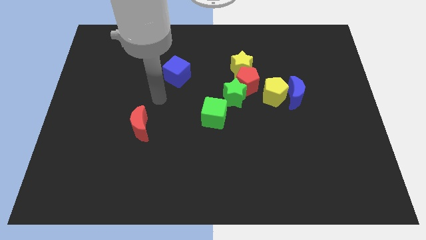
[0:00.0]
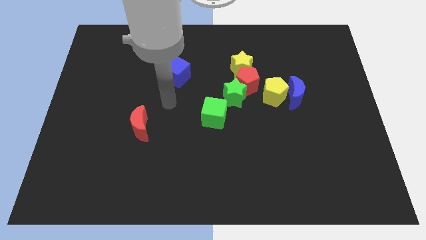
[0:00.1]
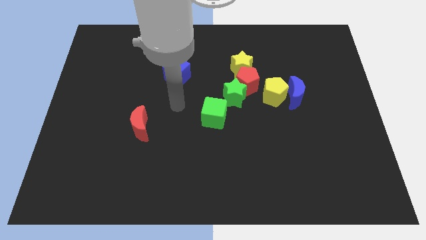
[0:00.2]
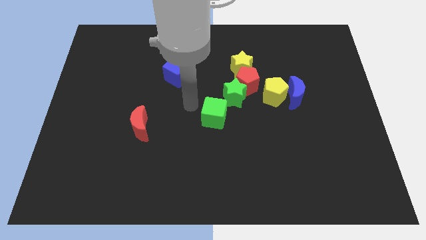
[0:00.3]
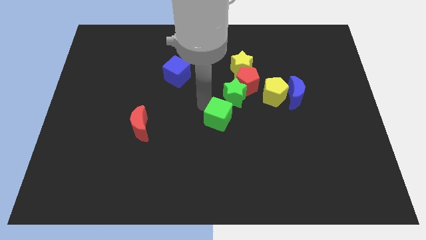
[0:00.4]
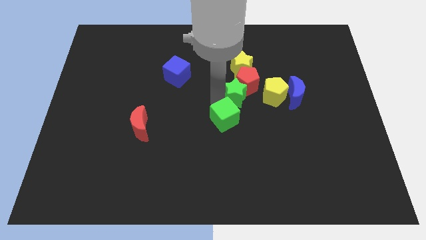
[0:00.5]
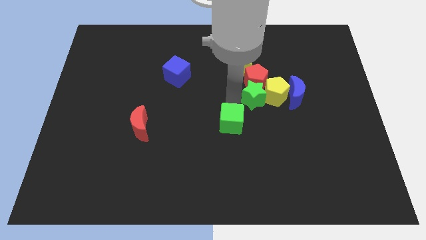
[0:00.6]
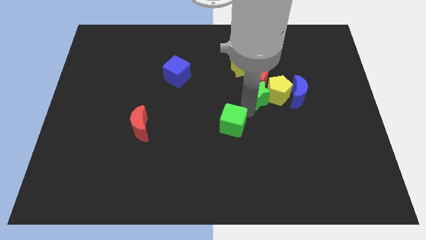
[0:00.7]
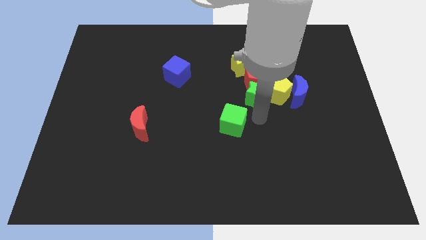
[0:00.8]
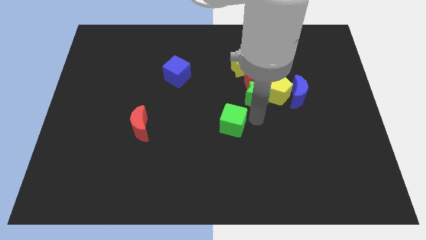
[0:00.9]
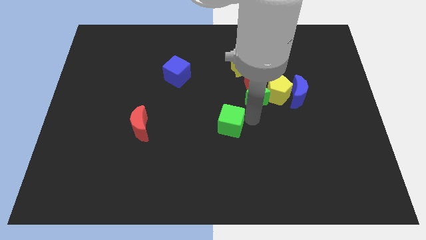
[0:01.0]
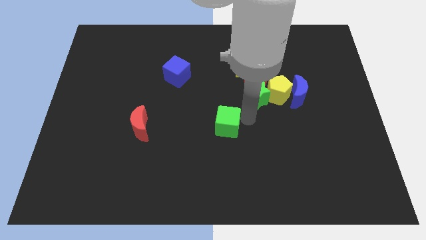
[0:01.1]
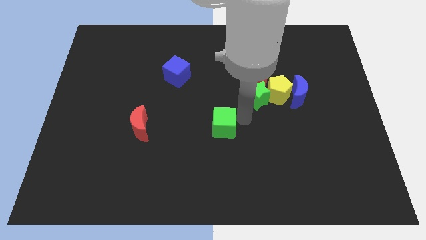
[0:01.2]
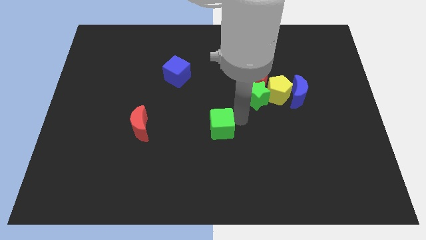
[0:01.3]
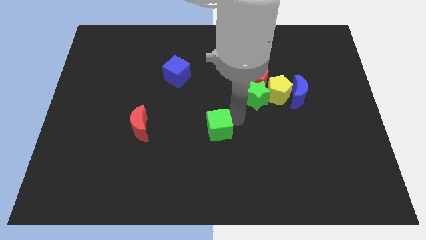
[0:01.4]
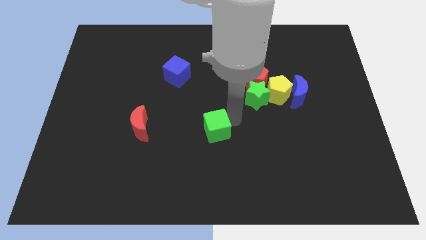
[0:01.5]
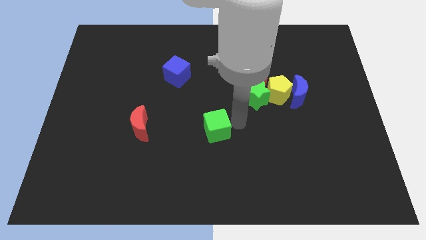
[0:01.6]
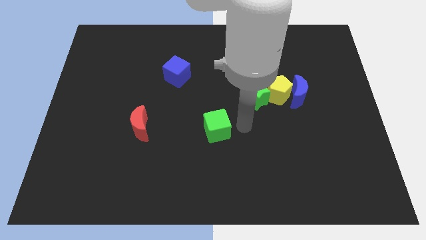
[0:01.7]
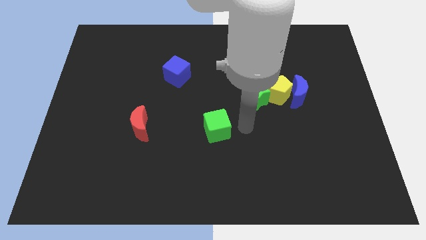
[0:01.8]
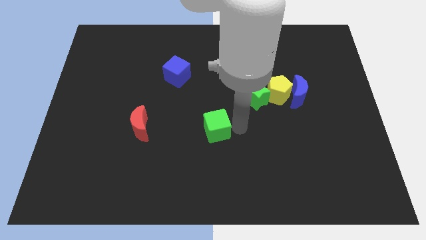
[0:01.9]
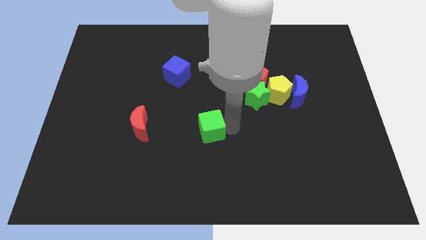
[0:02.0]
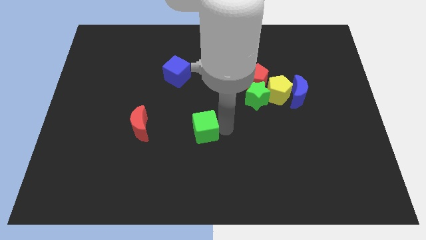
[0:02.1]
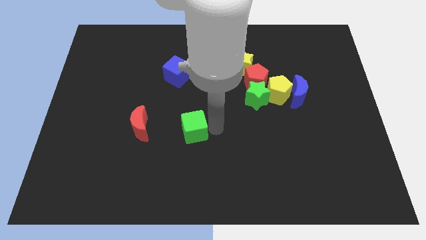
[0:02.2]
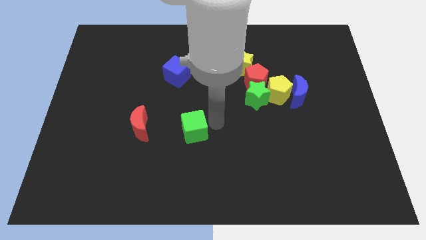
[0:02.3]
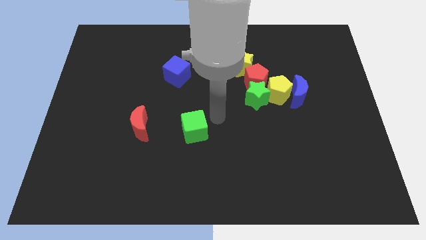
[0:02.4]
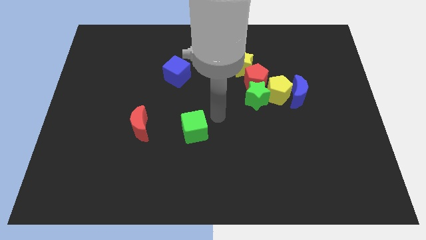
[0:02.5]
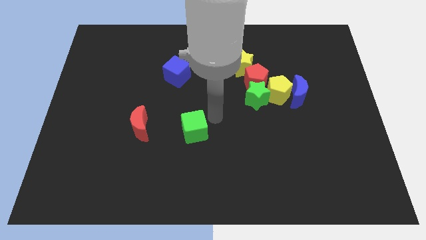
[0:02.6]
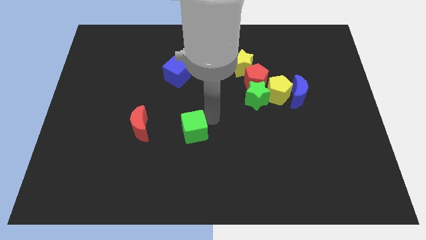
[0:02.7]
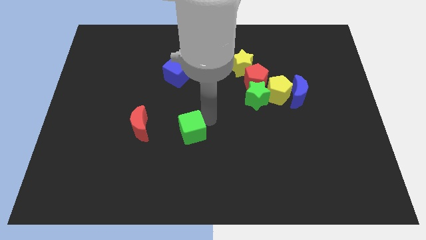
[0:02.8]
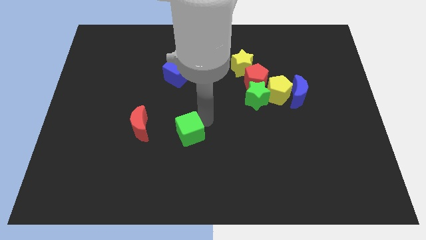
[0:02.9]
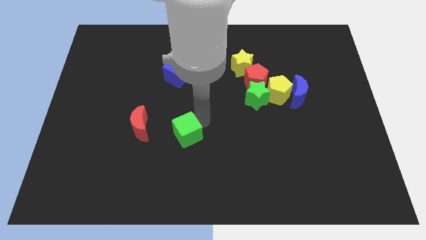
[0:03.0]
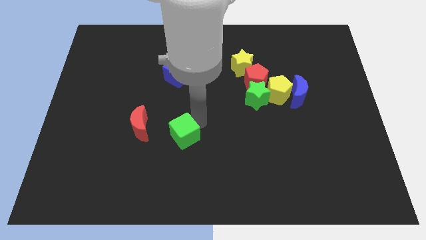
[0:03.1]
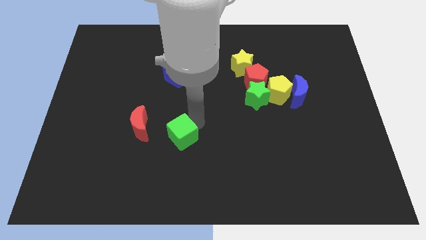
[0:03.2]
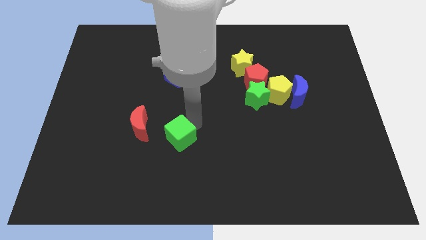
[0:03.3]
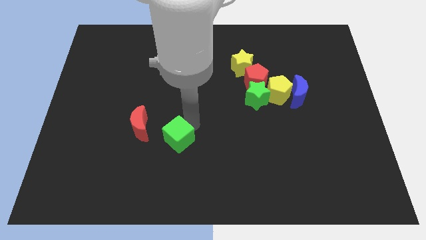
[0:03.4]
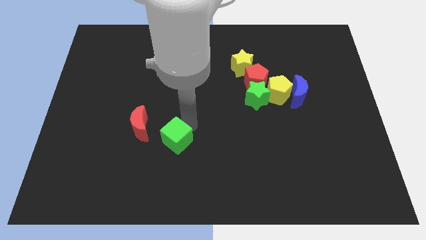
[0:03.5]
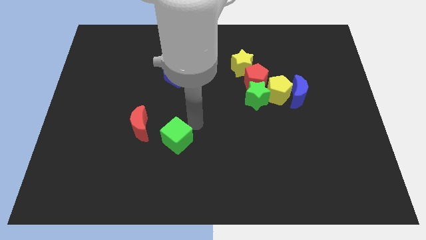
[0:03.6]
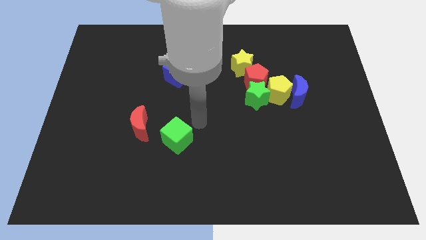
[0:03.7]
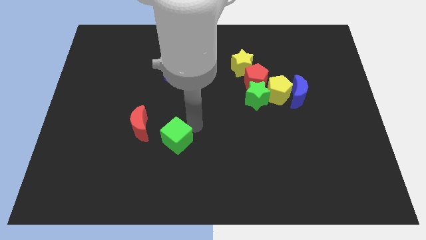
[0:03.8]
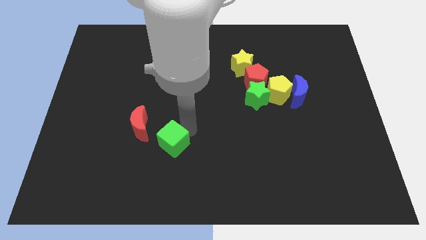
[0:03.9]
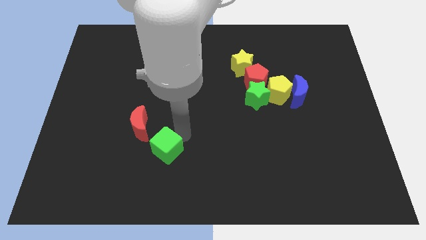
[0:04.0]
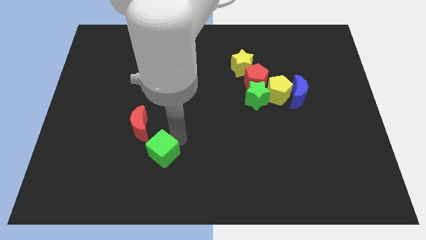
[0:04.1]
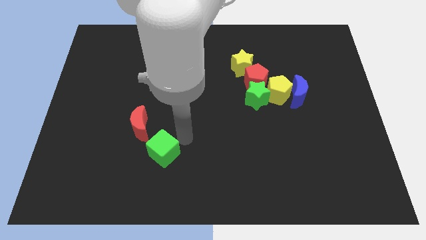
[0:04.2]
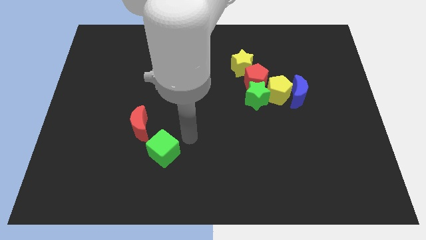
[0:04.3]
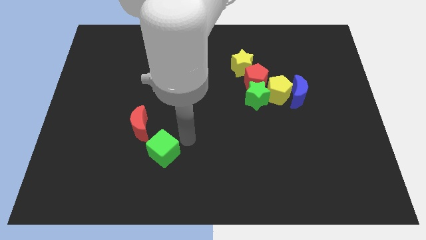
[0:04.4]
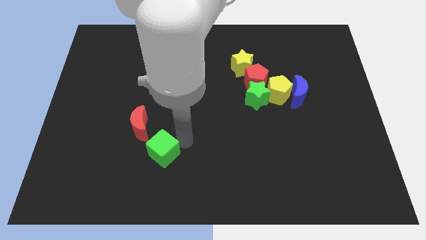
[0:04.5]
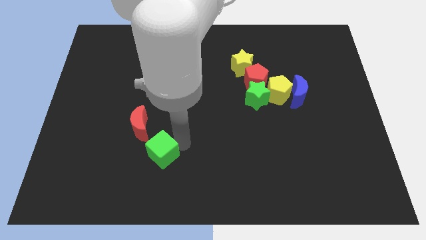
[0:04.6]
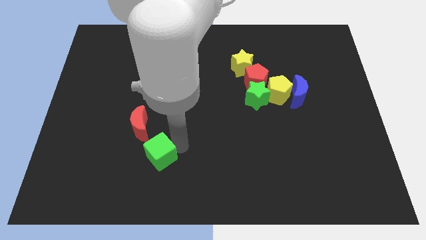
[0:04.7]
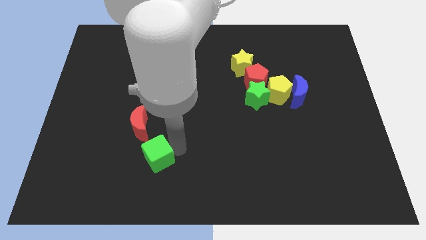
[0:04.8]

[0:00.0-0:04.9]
move the green cube to the bottom of the red moon

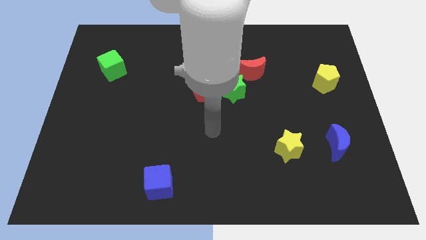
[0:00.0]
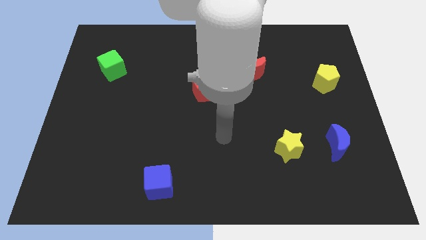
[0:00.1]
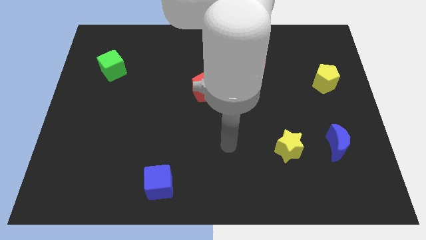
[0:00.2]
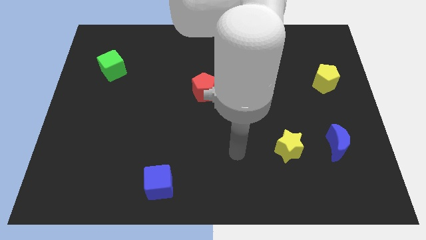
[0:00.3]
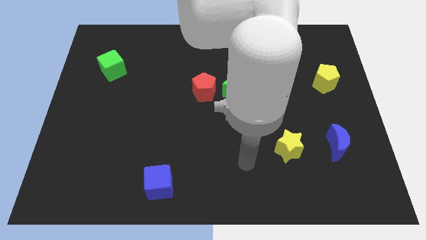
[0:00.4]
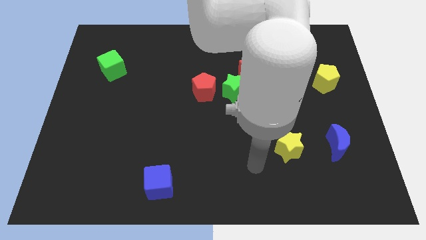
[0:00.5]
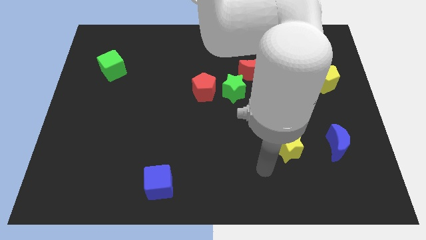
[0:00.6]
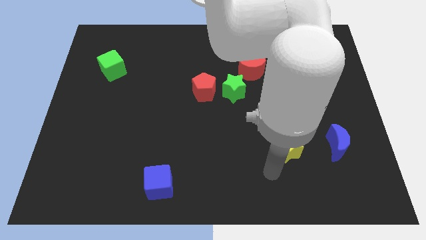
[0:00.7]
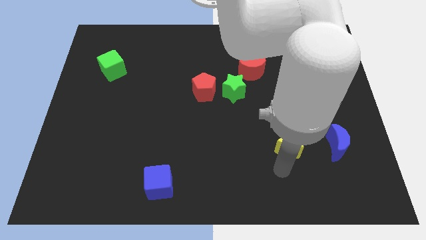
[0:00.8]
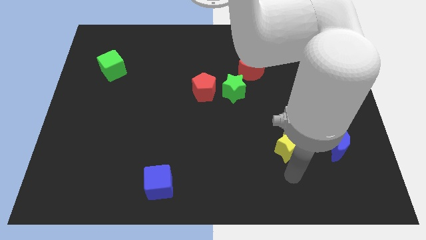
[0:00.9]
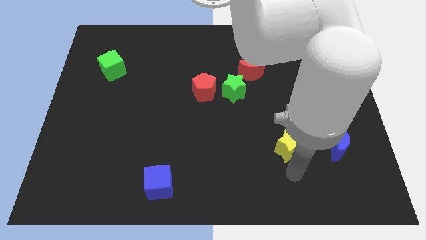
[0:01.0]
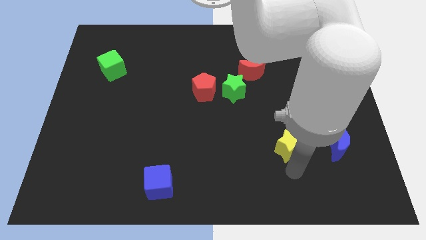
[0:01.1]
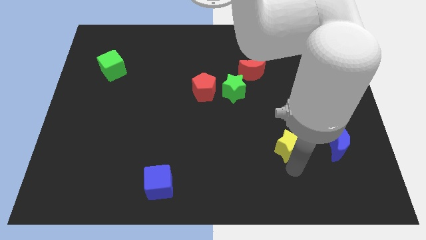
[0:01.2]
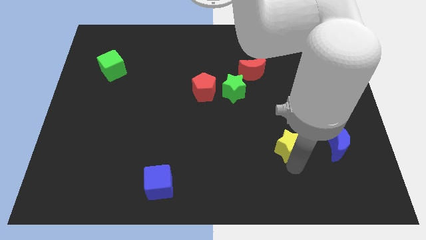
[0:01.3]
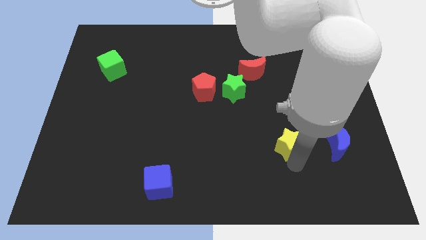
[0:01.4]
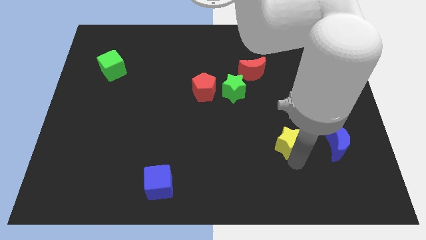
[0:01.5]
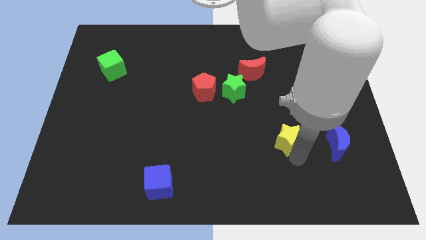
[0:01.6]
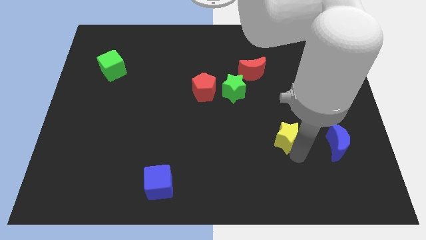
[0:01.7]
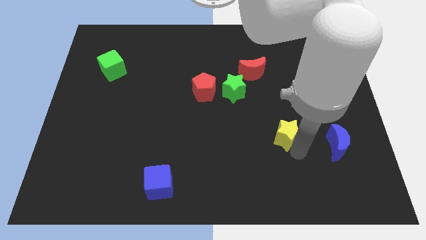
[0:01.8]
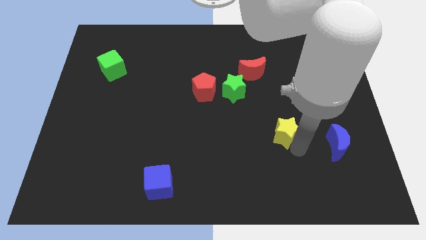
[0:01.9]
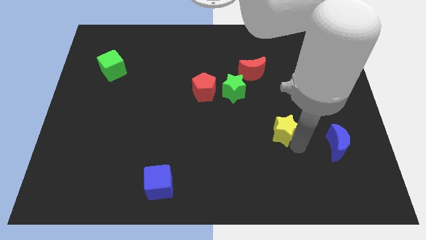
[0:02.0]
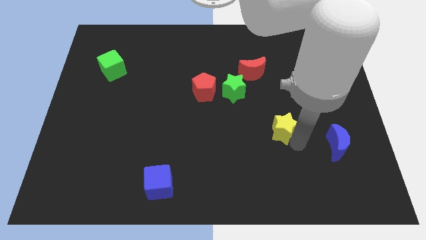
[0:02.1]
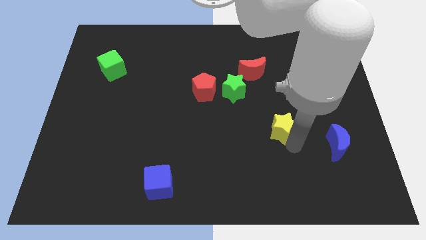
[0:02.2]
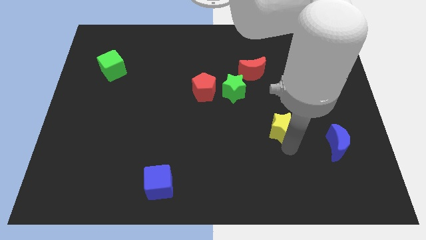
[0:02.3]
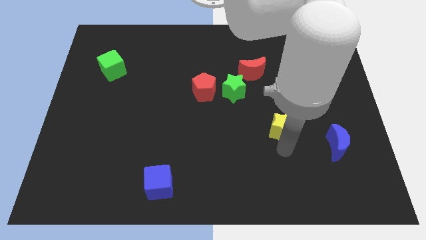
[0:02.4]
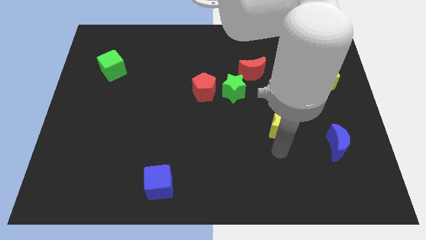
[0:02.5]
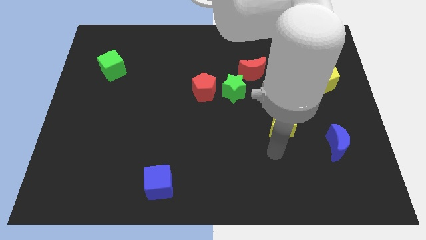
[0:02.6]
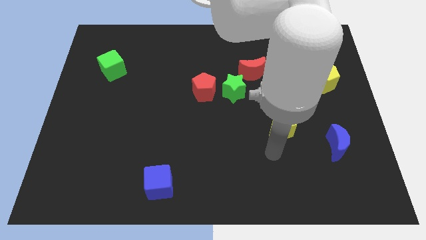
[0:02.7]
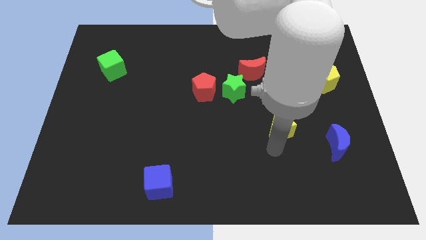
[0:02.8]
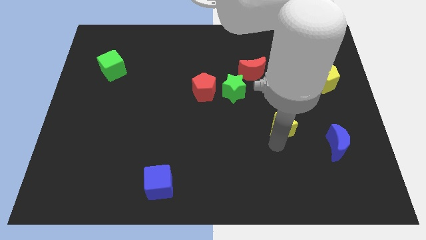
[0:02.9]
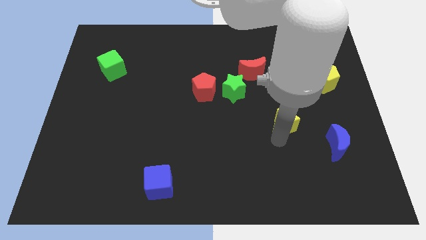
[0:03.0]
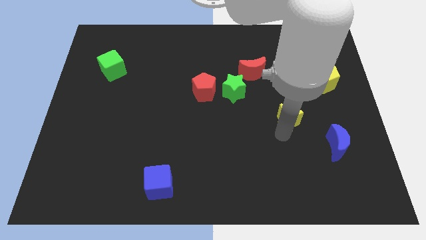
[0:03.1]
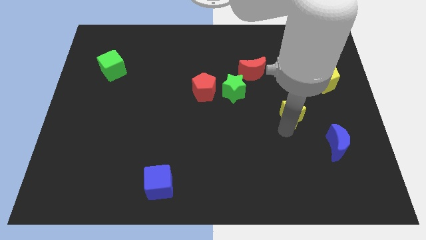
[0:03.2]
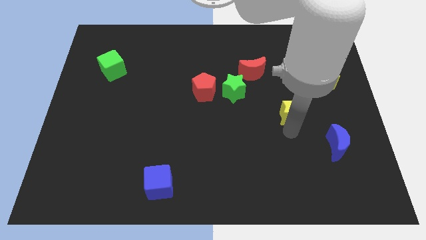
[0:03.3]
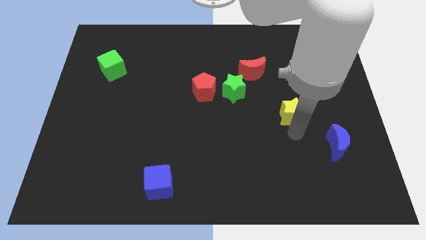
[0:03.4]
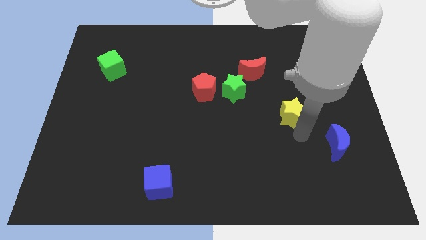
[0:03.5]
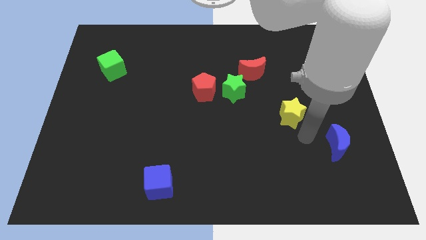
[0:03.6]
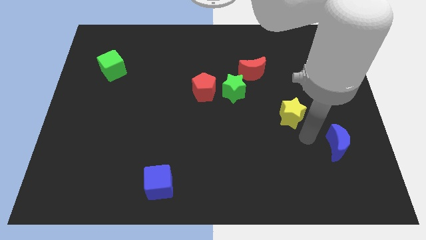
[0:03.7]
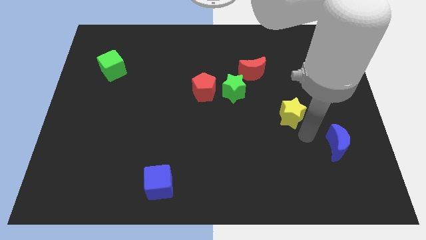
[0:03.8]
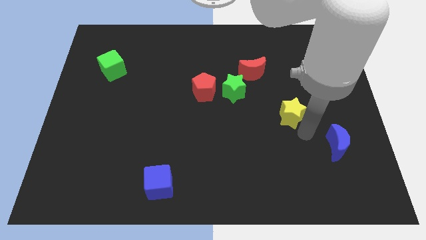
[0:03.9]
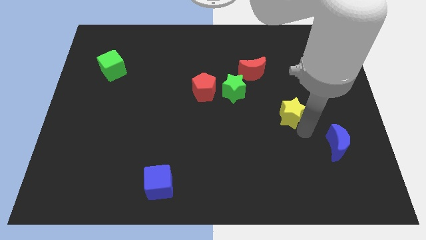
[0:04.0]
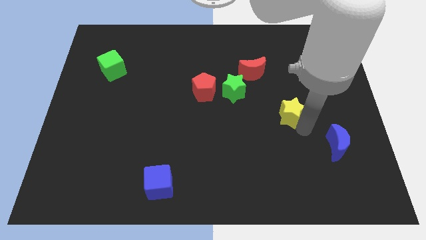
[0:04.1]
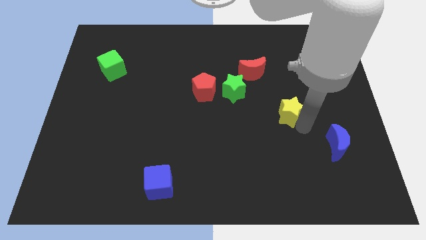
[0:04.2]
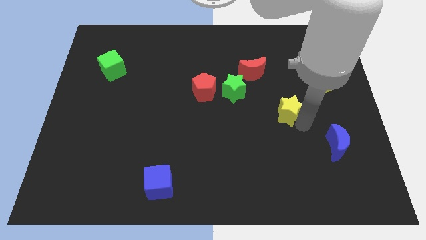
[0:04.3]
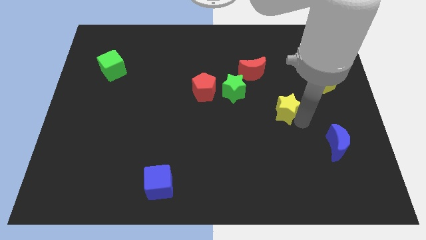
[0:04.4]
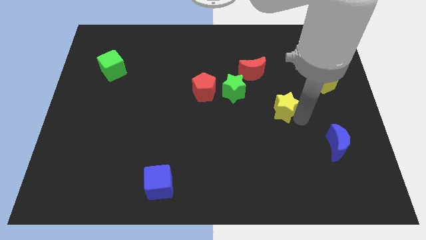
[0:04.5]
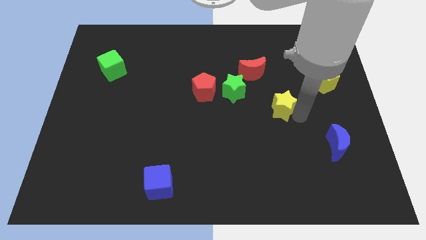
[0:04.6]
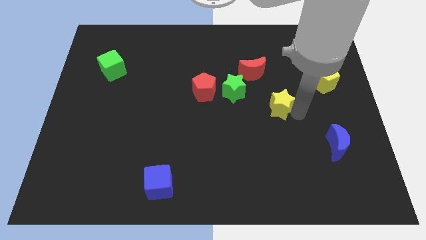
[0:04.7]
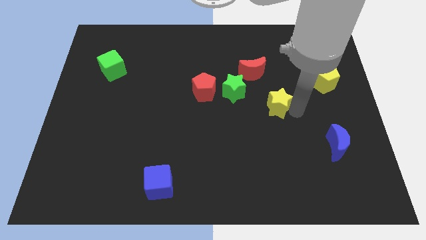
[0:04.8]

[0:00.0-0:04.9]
push the yellow star diagonally down and to the right of the red moon
